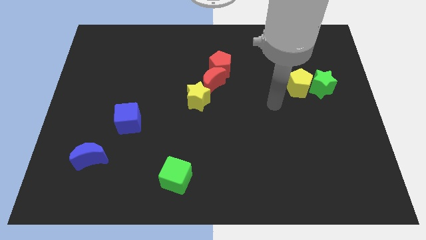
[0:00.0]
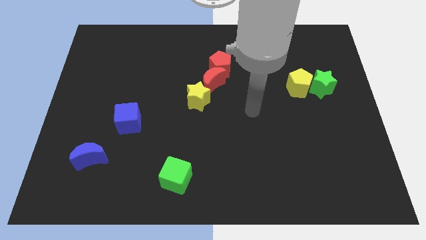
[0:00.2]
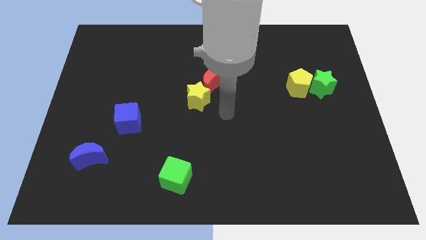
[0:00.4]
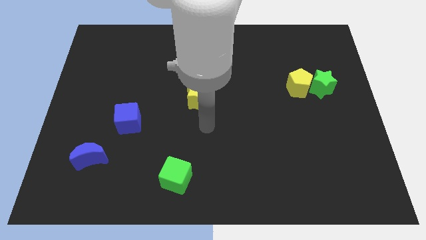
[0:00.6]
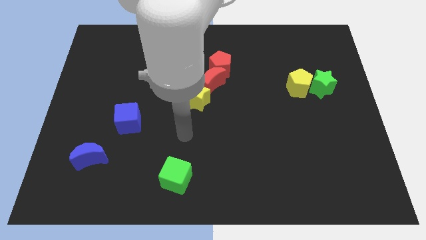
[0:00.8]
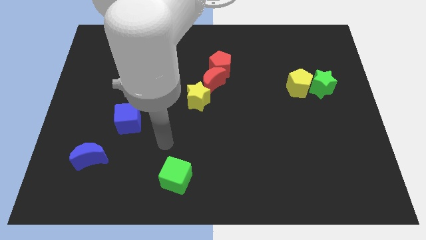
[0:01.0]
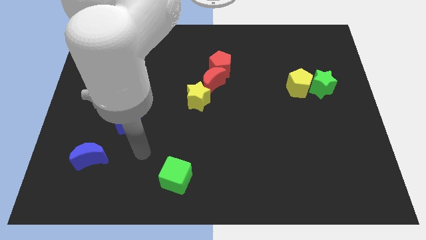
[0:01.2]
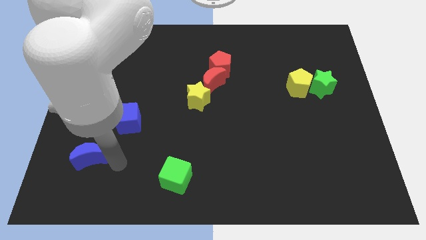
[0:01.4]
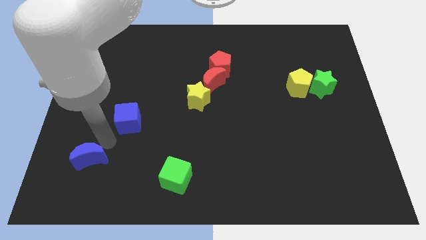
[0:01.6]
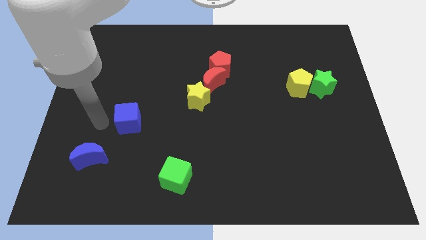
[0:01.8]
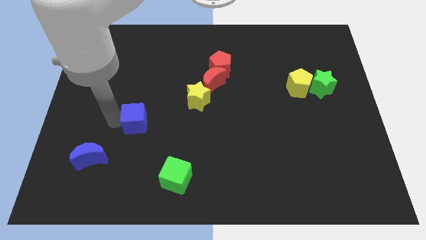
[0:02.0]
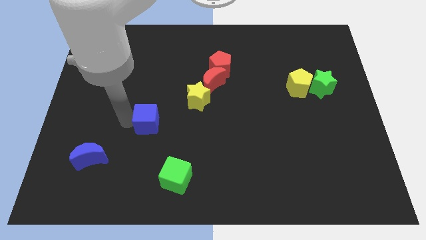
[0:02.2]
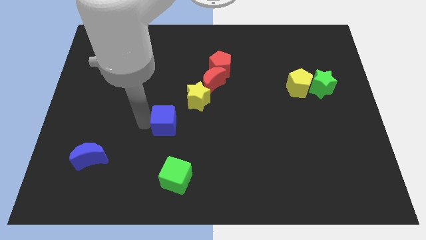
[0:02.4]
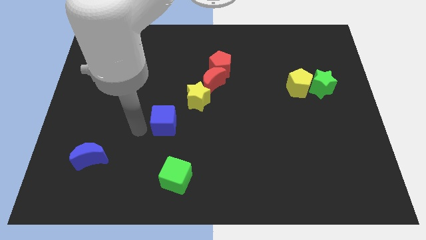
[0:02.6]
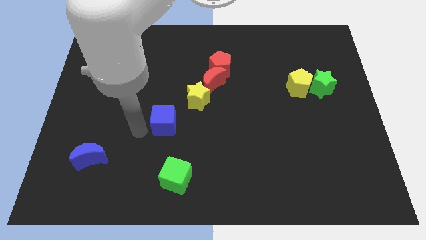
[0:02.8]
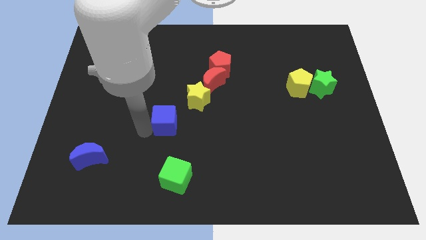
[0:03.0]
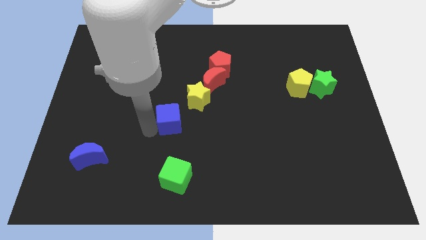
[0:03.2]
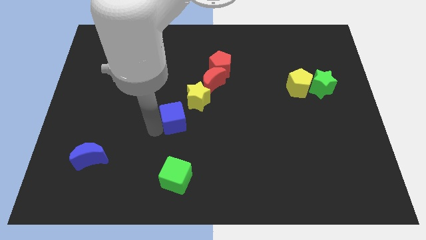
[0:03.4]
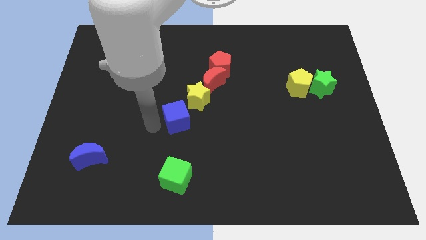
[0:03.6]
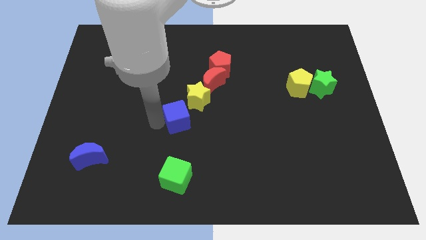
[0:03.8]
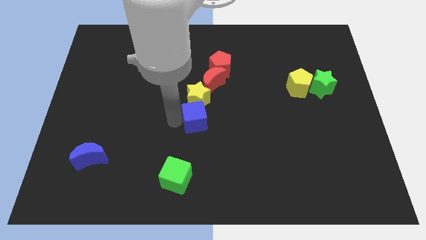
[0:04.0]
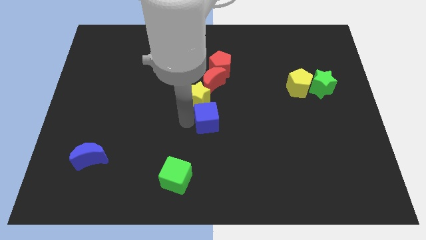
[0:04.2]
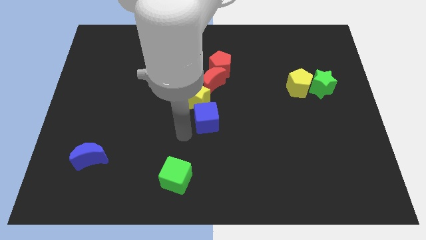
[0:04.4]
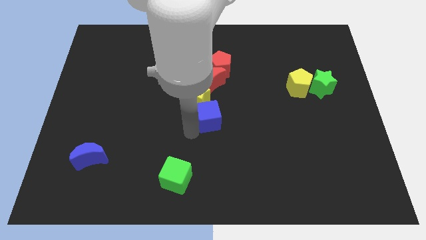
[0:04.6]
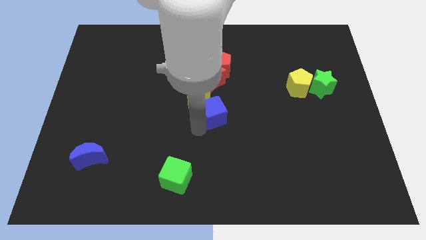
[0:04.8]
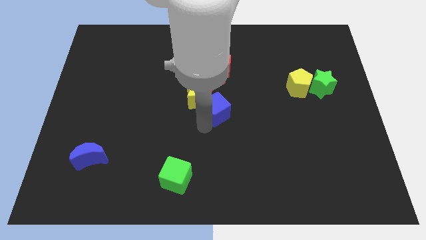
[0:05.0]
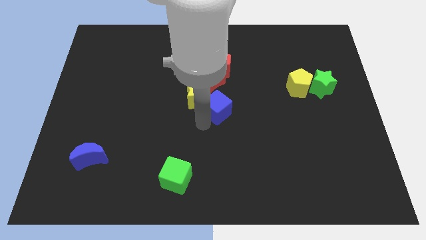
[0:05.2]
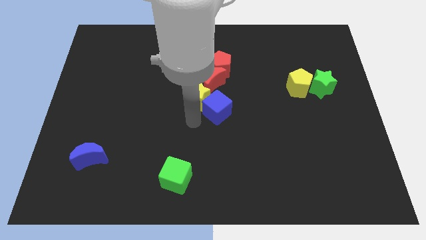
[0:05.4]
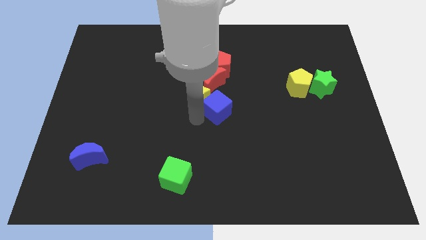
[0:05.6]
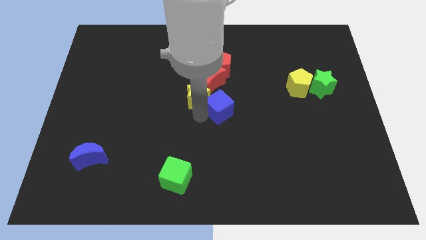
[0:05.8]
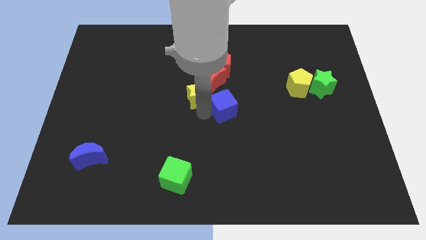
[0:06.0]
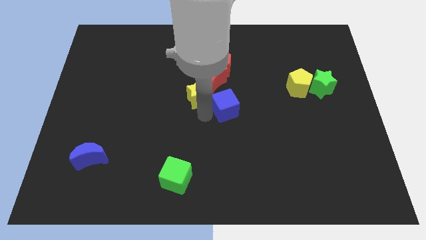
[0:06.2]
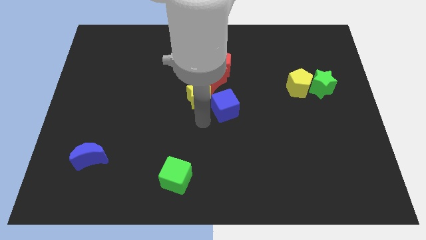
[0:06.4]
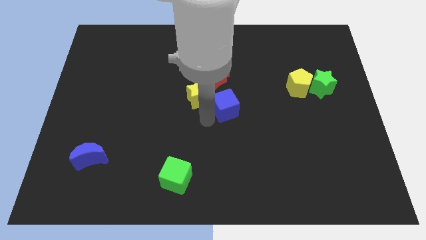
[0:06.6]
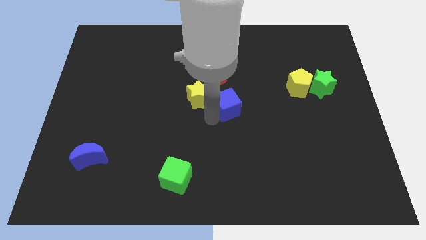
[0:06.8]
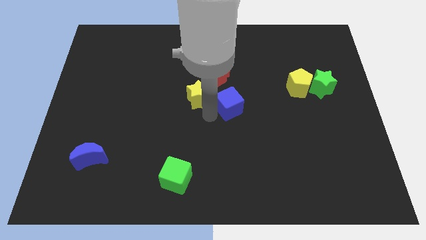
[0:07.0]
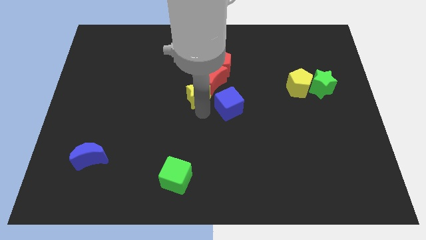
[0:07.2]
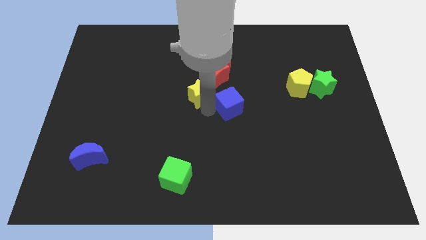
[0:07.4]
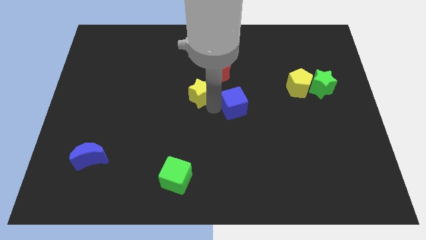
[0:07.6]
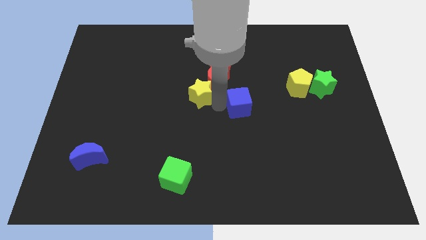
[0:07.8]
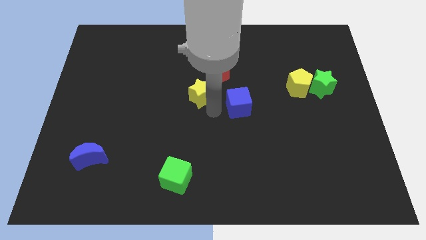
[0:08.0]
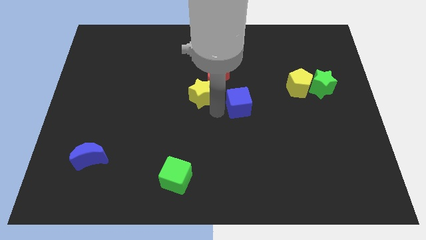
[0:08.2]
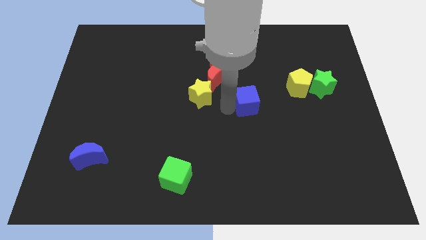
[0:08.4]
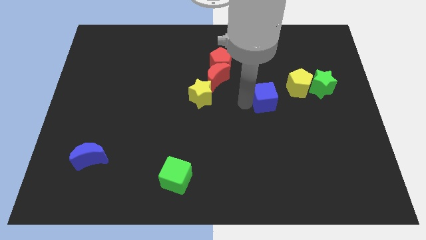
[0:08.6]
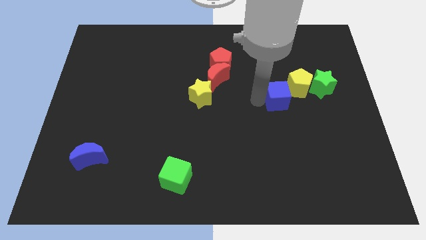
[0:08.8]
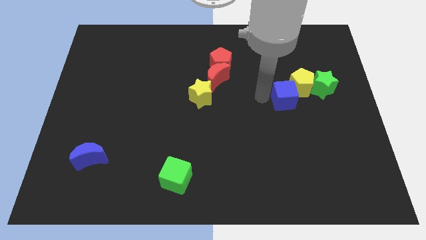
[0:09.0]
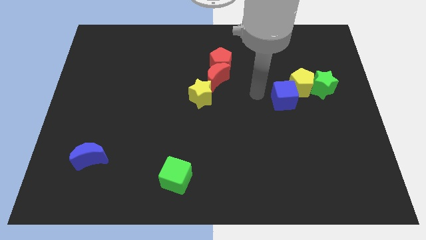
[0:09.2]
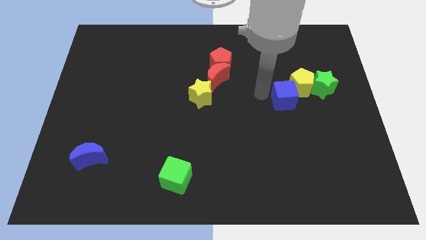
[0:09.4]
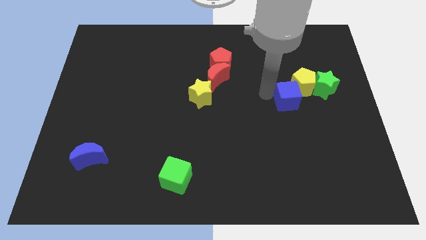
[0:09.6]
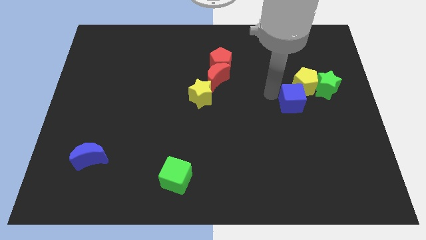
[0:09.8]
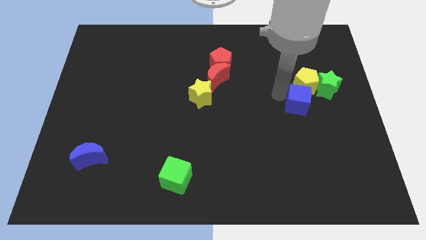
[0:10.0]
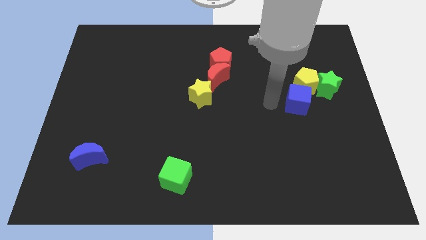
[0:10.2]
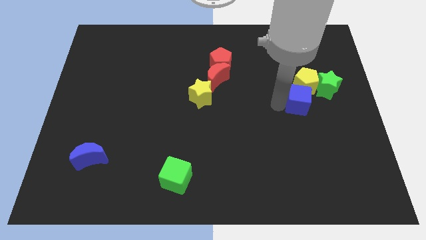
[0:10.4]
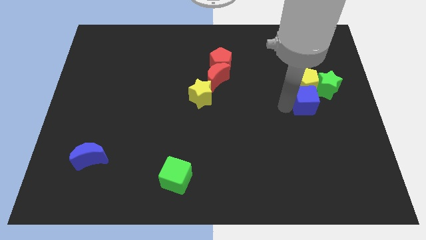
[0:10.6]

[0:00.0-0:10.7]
put the blue cube diagonally down and to the right of the yellow pentagon

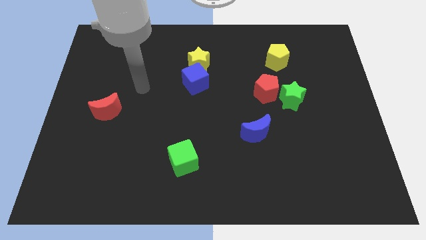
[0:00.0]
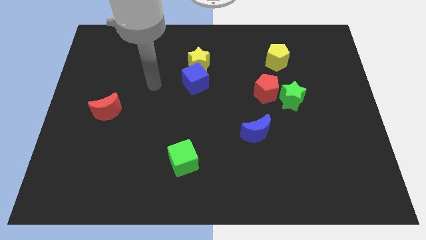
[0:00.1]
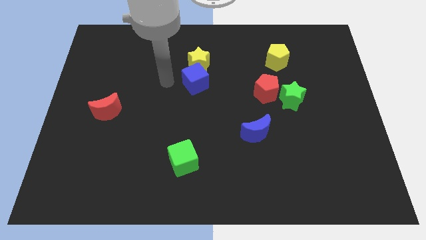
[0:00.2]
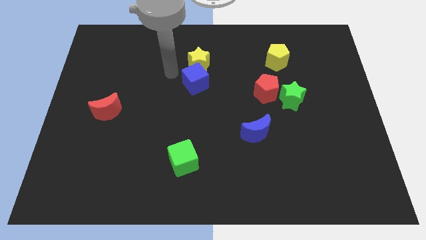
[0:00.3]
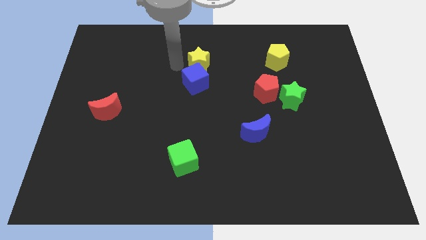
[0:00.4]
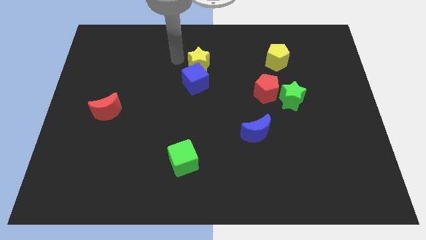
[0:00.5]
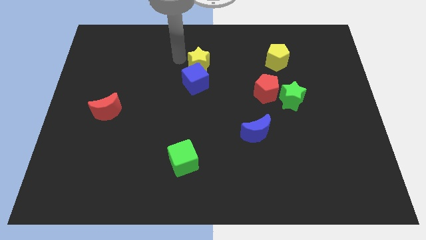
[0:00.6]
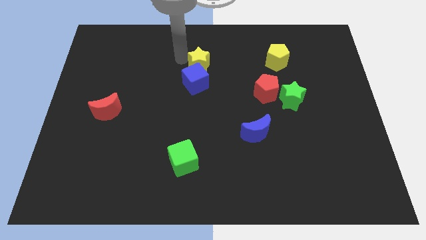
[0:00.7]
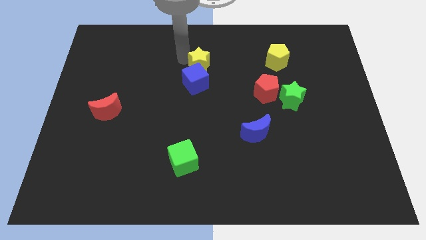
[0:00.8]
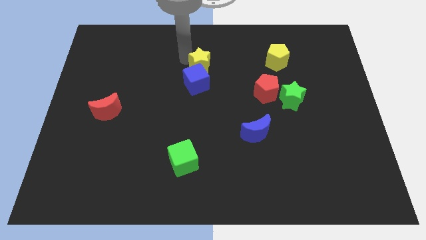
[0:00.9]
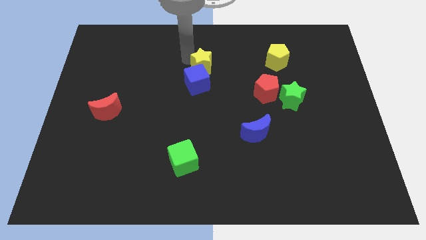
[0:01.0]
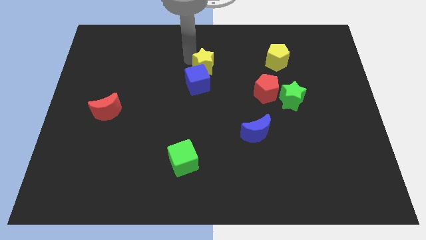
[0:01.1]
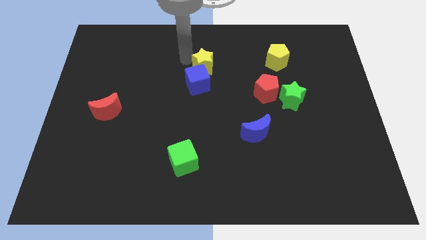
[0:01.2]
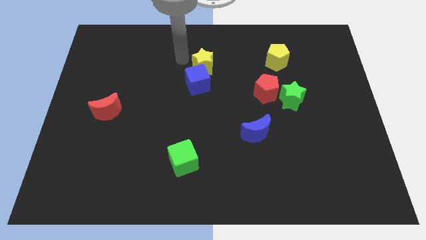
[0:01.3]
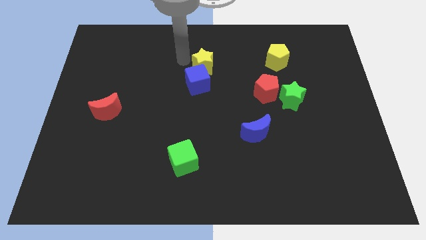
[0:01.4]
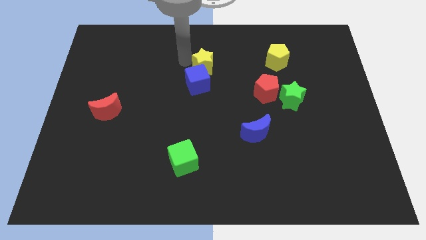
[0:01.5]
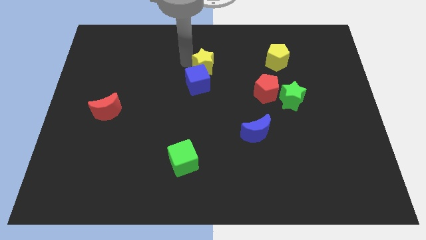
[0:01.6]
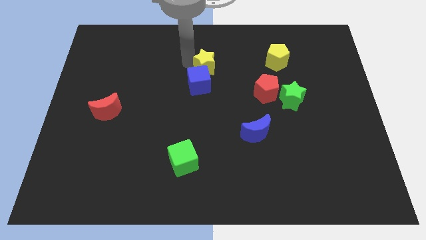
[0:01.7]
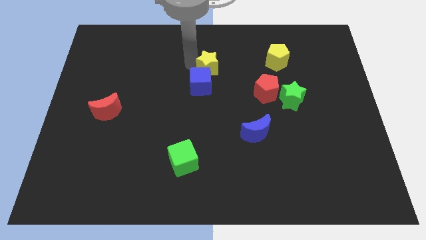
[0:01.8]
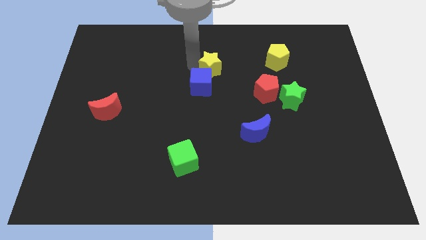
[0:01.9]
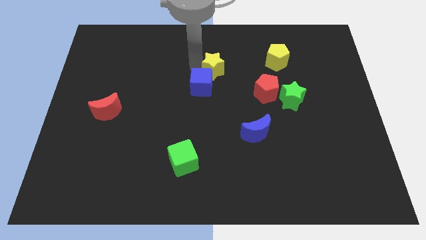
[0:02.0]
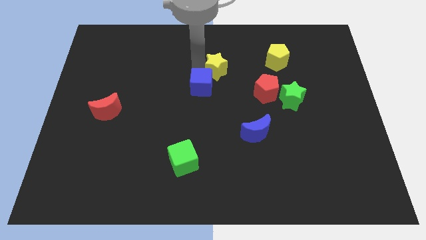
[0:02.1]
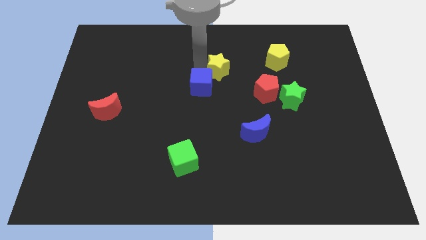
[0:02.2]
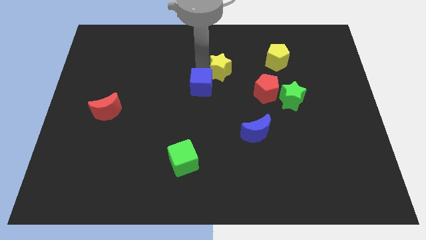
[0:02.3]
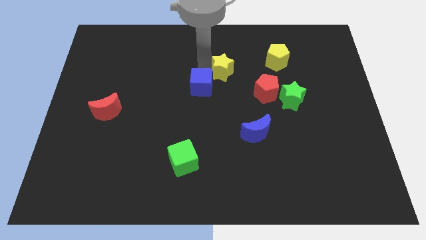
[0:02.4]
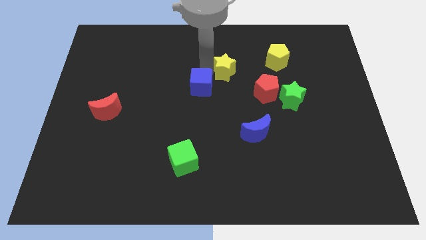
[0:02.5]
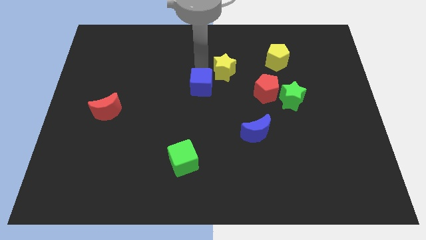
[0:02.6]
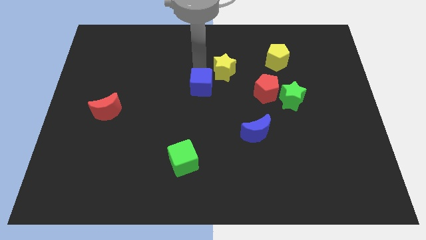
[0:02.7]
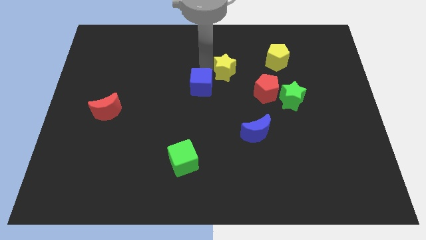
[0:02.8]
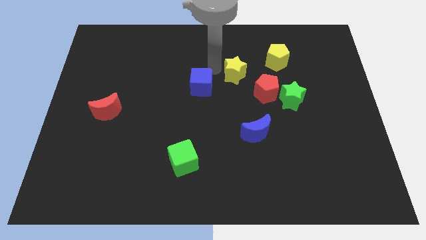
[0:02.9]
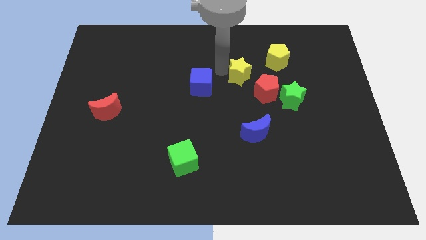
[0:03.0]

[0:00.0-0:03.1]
push the yellow star diagonally down and to the left of the yellow pentagon
